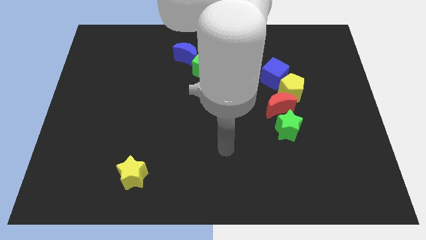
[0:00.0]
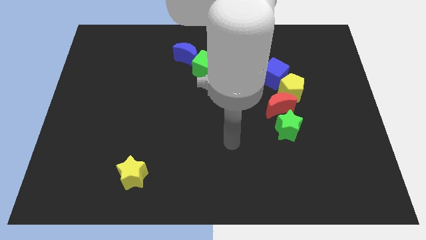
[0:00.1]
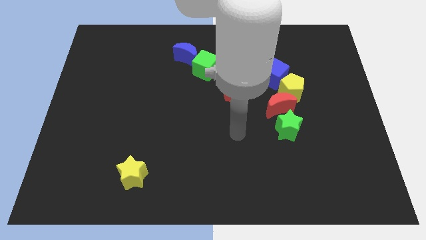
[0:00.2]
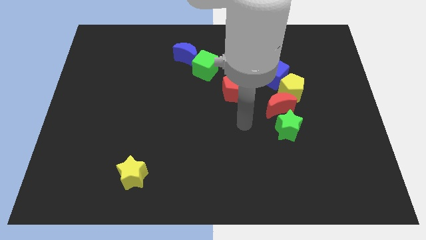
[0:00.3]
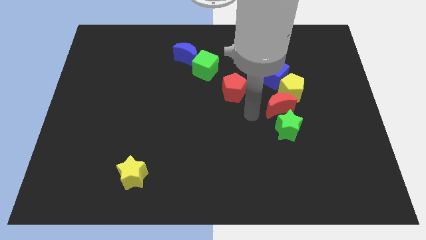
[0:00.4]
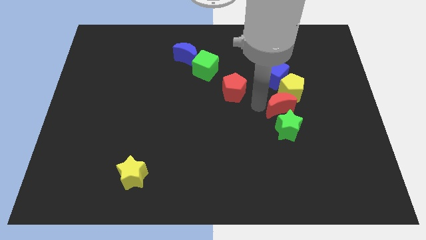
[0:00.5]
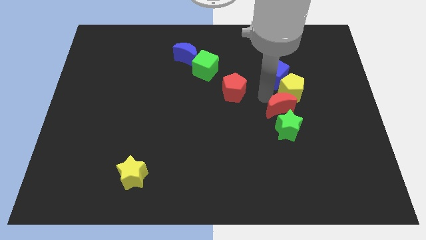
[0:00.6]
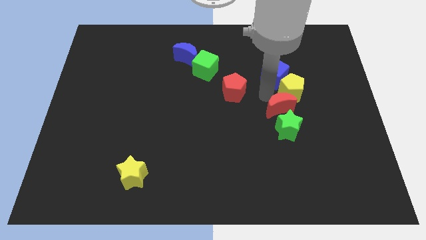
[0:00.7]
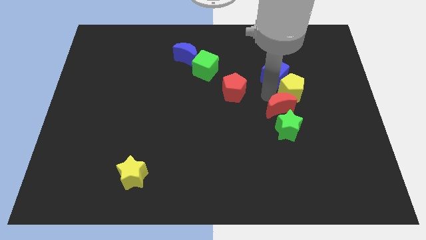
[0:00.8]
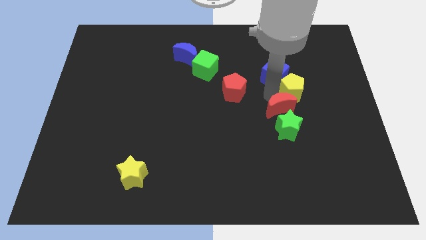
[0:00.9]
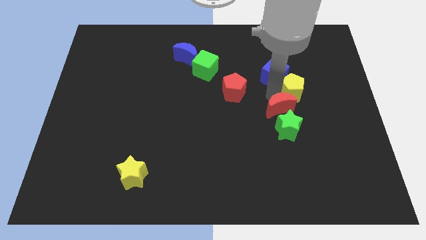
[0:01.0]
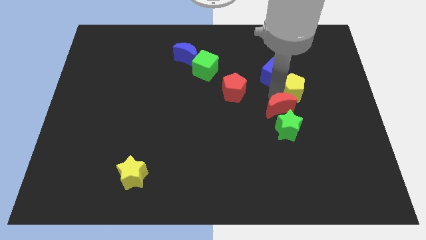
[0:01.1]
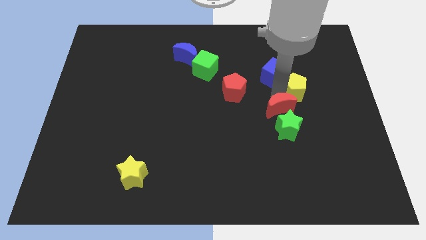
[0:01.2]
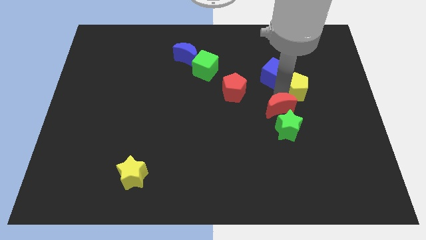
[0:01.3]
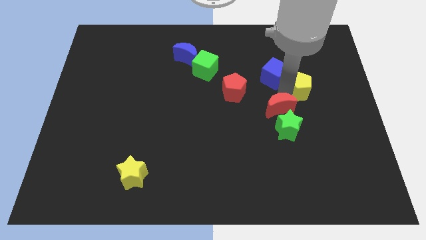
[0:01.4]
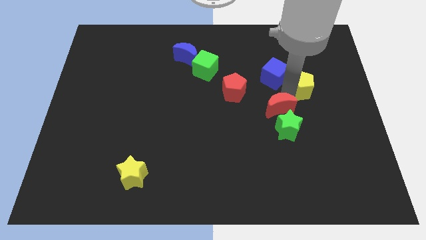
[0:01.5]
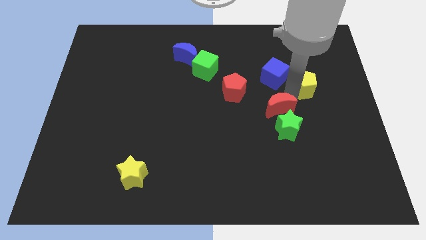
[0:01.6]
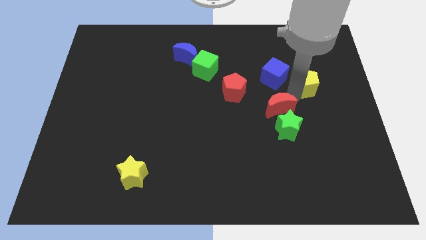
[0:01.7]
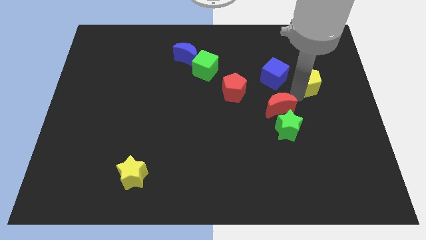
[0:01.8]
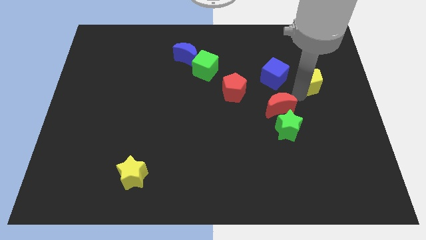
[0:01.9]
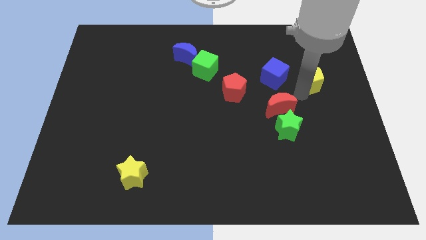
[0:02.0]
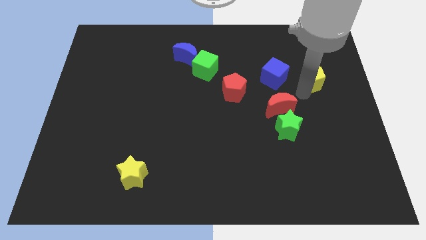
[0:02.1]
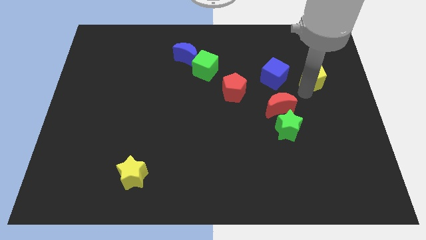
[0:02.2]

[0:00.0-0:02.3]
move the yellow pentagon away from the blue cube and red moon

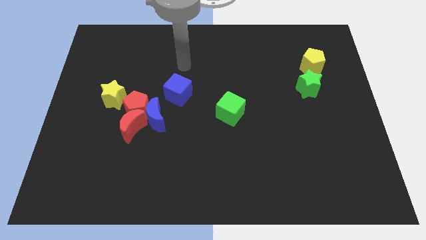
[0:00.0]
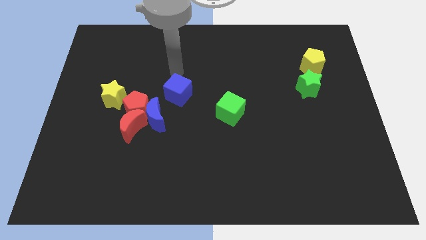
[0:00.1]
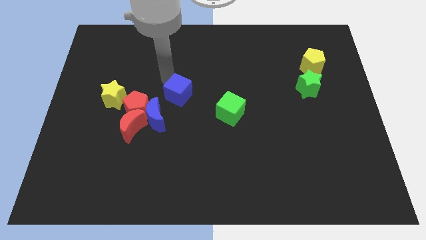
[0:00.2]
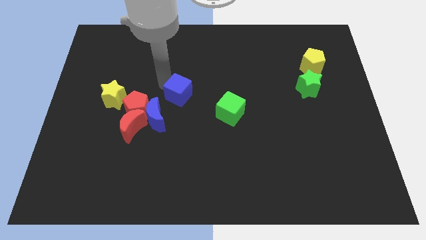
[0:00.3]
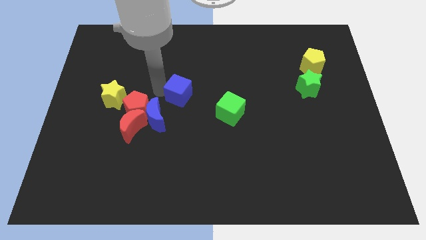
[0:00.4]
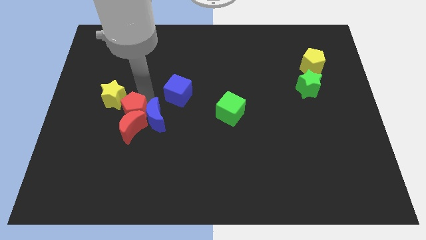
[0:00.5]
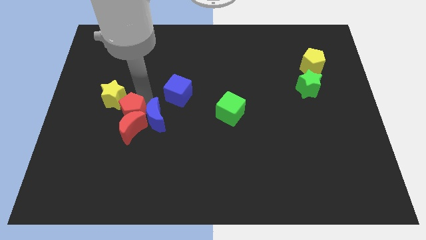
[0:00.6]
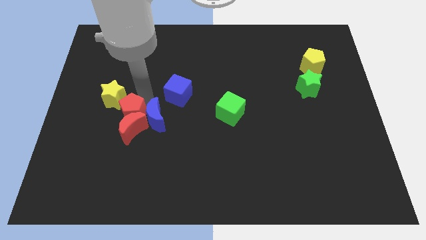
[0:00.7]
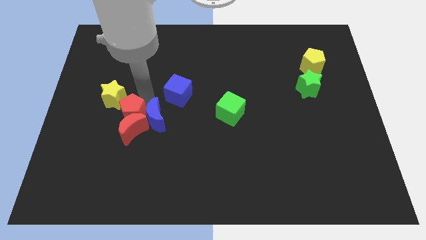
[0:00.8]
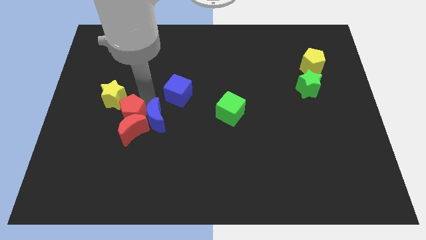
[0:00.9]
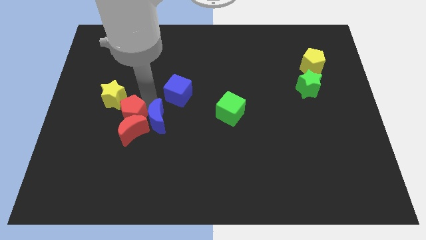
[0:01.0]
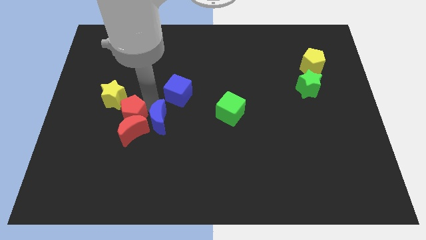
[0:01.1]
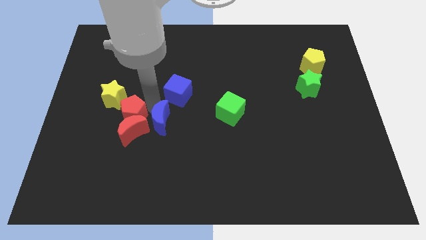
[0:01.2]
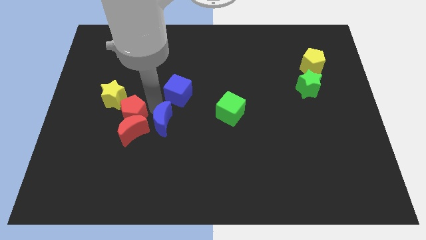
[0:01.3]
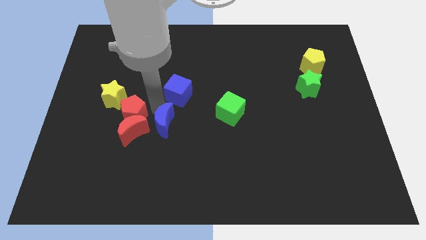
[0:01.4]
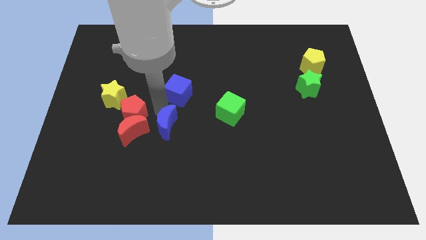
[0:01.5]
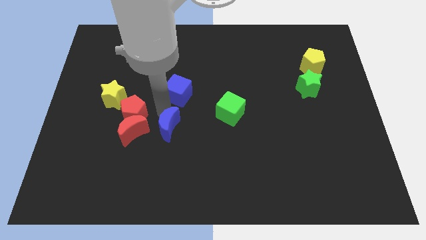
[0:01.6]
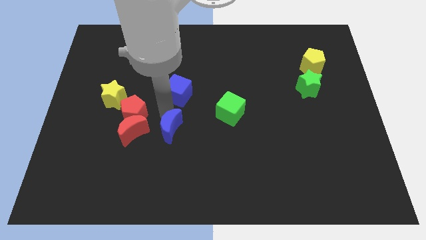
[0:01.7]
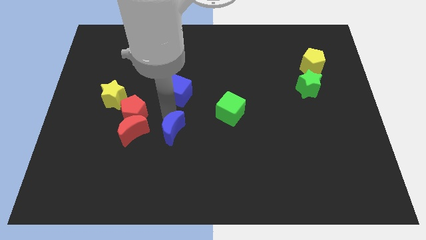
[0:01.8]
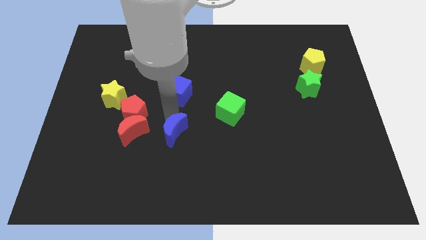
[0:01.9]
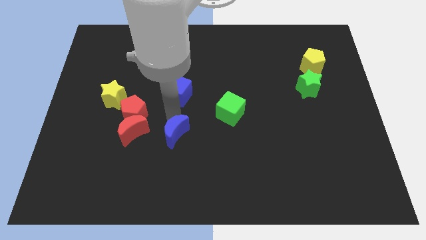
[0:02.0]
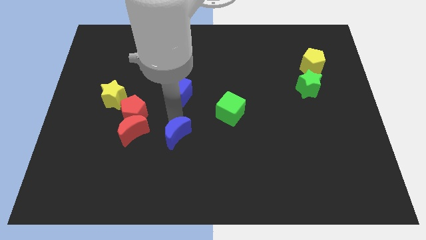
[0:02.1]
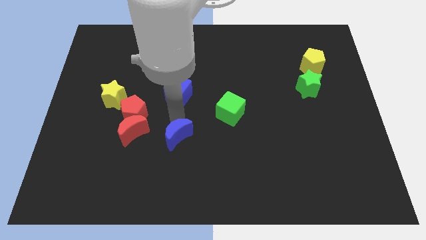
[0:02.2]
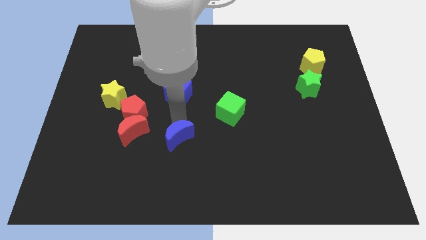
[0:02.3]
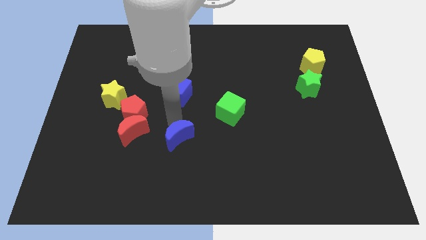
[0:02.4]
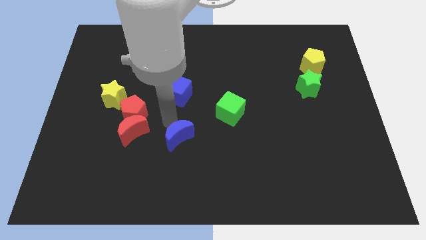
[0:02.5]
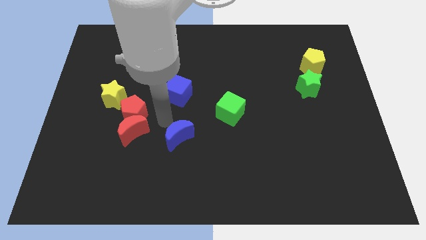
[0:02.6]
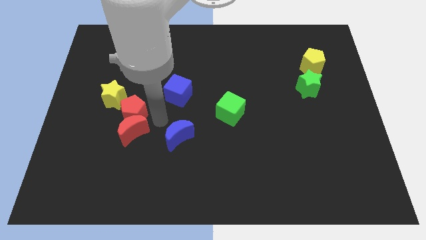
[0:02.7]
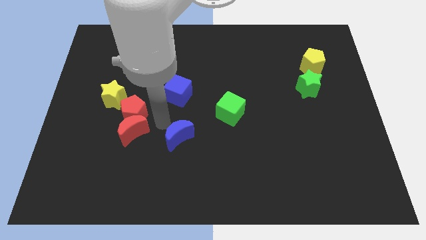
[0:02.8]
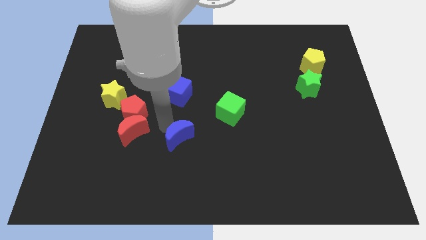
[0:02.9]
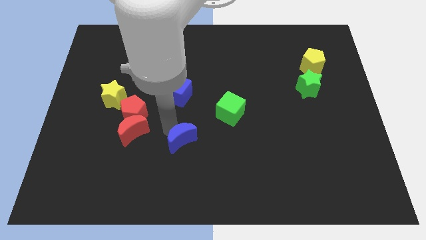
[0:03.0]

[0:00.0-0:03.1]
move the blue moon away from the clump

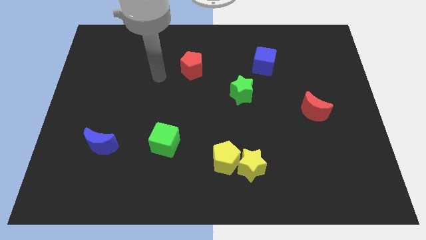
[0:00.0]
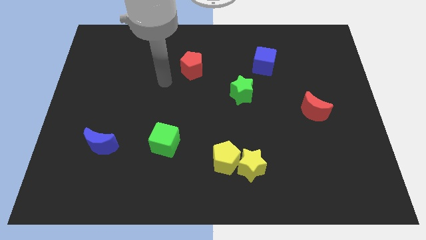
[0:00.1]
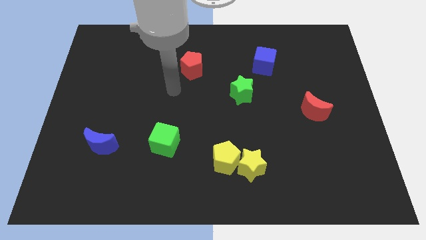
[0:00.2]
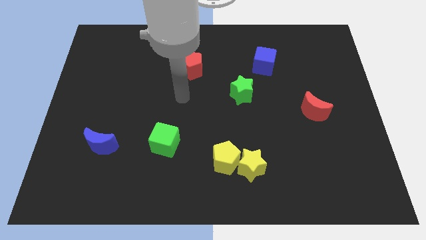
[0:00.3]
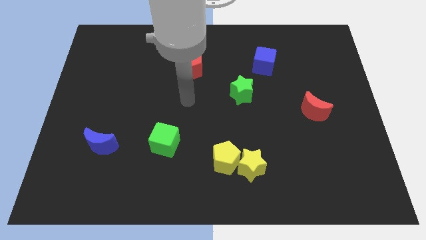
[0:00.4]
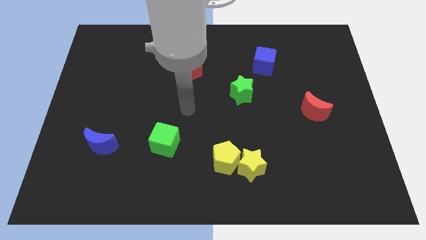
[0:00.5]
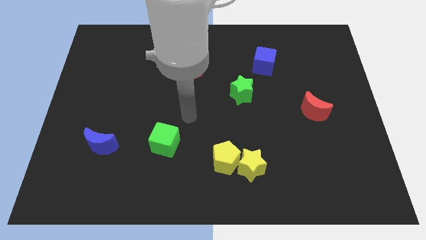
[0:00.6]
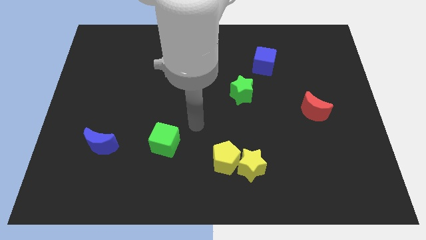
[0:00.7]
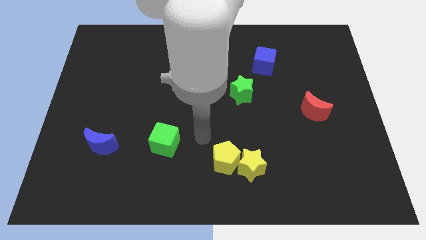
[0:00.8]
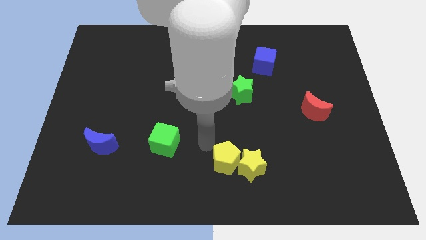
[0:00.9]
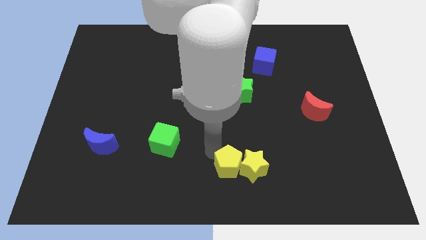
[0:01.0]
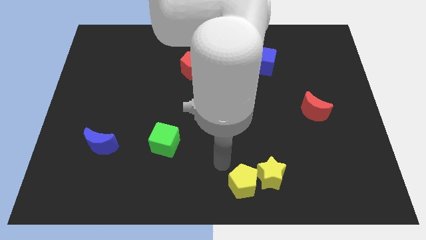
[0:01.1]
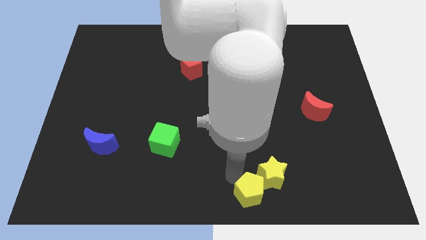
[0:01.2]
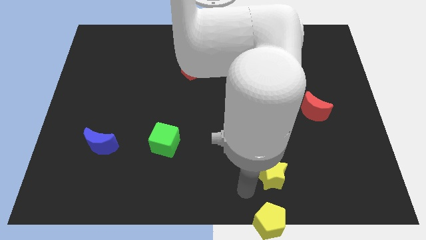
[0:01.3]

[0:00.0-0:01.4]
pull the yellow star apart from the yellow pentagon

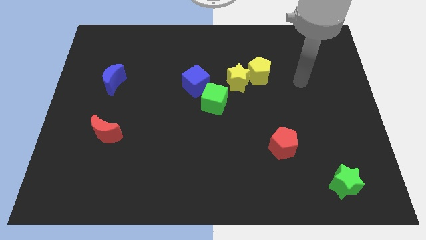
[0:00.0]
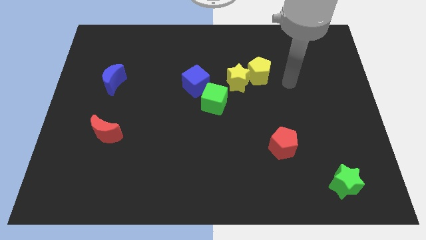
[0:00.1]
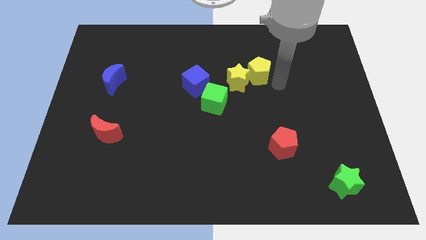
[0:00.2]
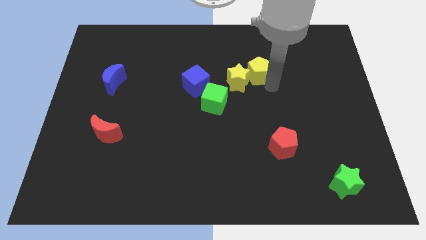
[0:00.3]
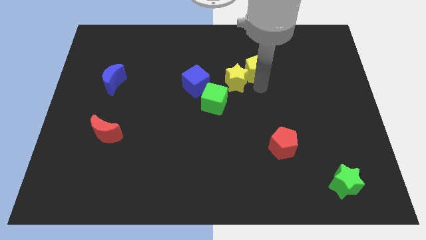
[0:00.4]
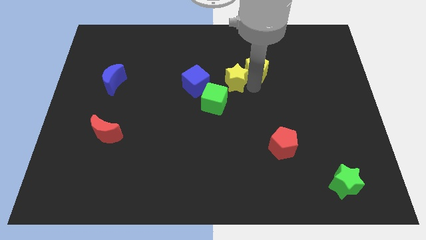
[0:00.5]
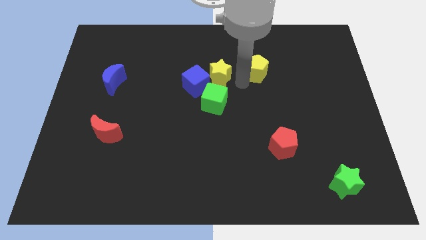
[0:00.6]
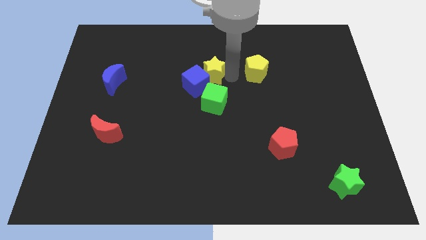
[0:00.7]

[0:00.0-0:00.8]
separate the yellow pentagon from the yellow star

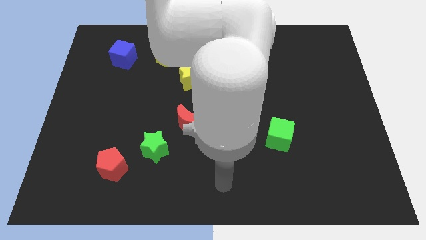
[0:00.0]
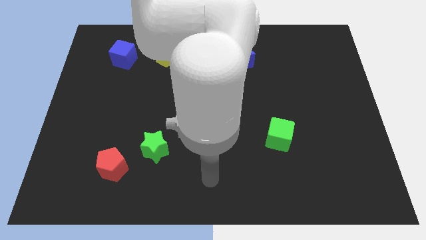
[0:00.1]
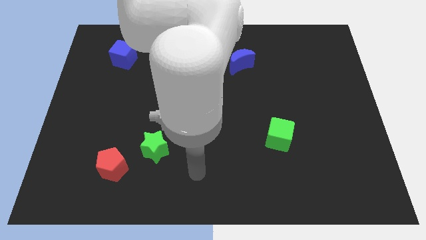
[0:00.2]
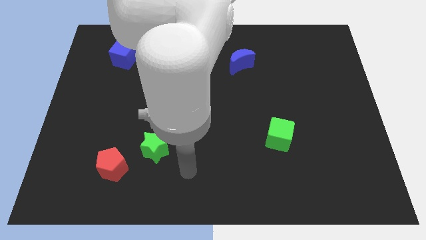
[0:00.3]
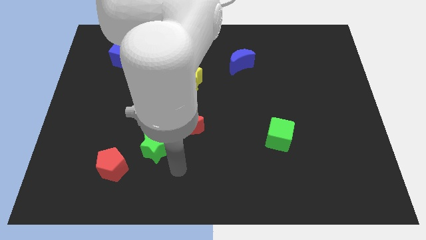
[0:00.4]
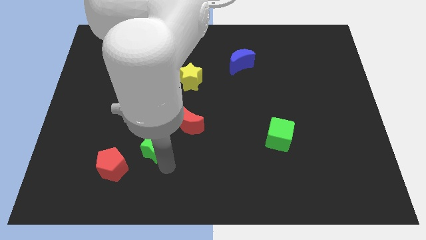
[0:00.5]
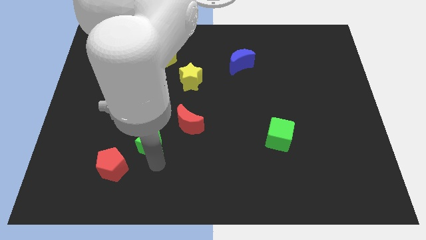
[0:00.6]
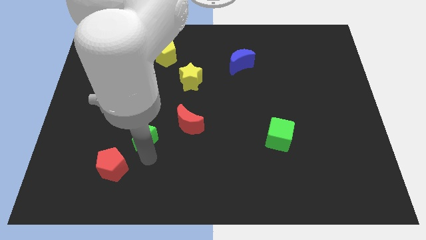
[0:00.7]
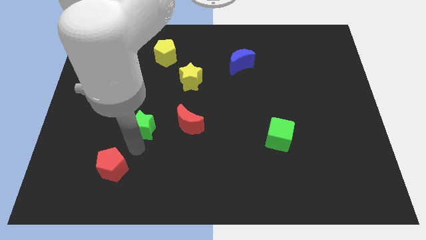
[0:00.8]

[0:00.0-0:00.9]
separate the red pentagon from the green star

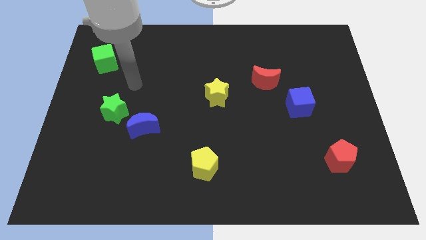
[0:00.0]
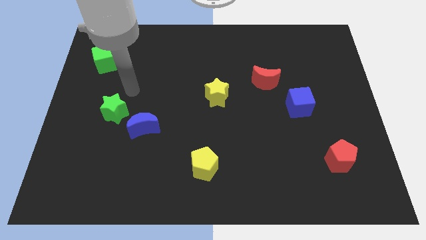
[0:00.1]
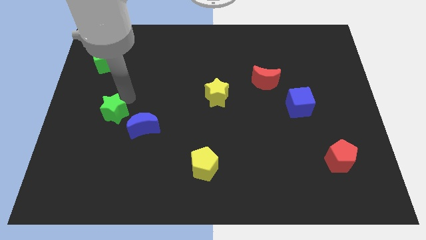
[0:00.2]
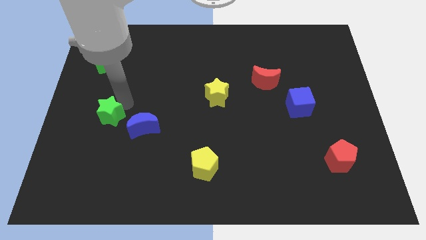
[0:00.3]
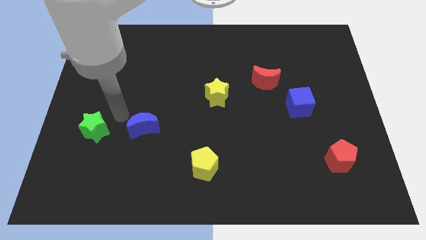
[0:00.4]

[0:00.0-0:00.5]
move the blue moon away from the green star

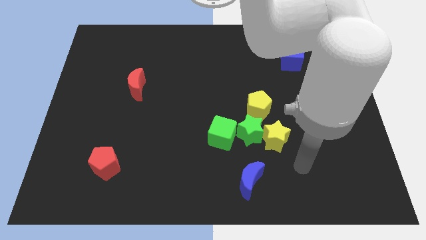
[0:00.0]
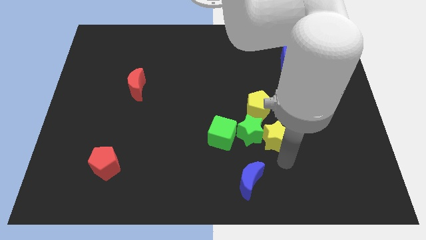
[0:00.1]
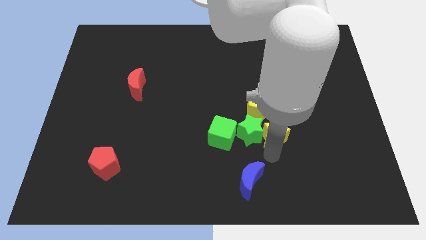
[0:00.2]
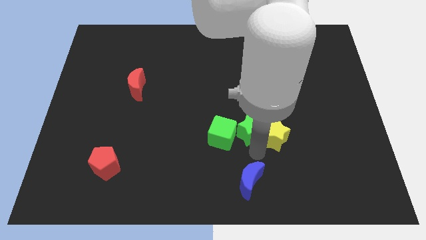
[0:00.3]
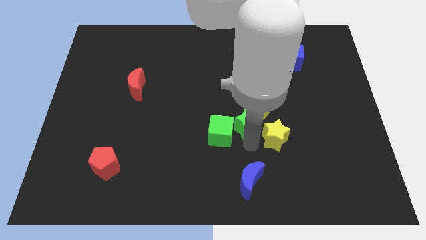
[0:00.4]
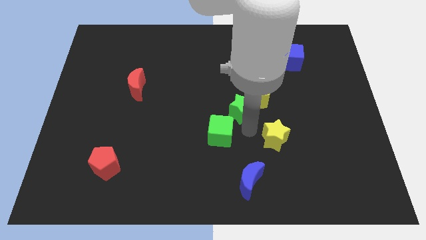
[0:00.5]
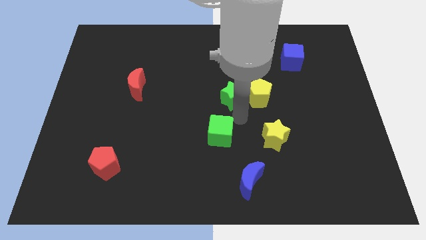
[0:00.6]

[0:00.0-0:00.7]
pull the green cube apart from the green star
